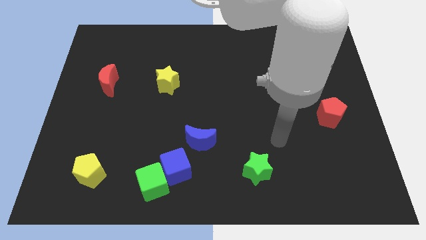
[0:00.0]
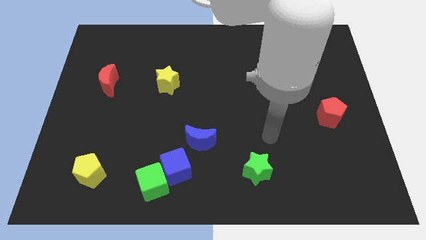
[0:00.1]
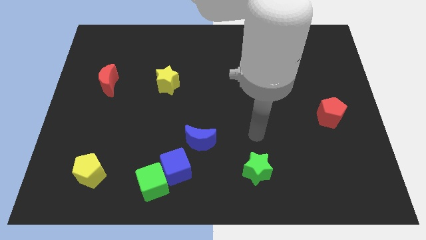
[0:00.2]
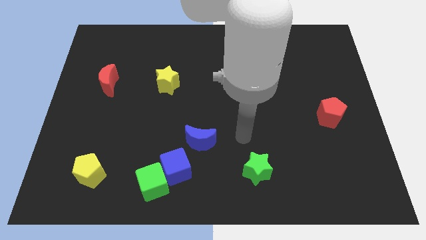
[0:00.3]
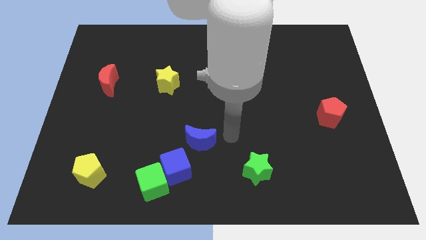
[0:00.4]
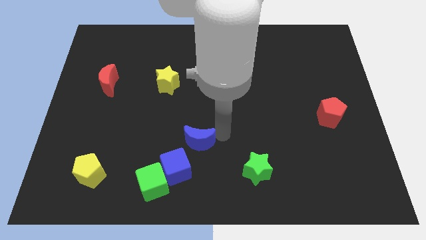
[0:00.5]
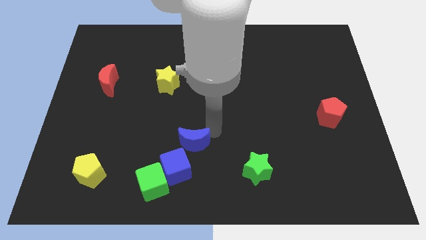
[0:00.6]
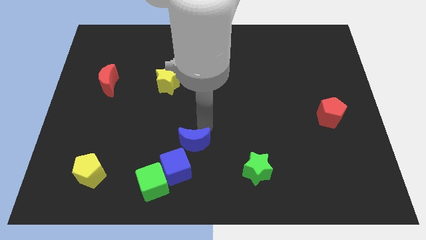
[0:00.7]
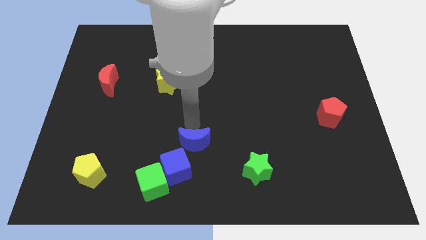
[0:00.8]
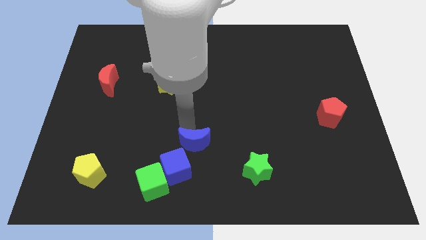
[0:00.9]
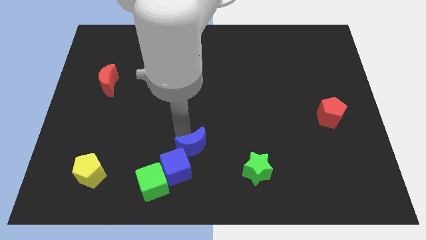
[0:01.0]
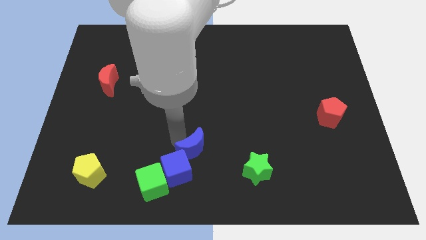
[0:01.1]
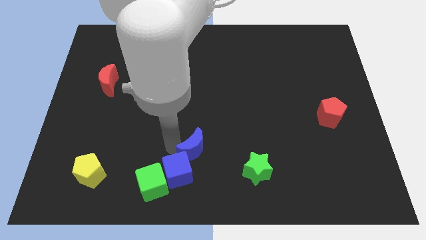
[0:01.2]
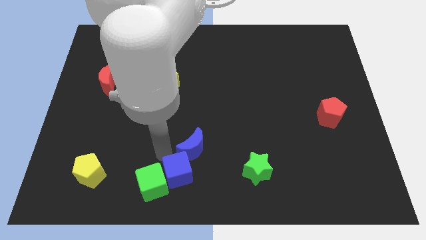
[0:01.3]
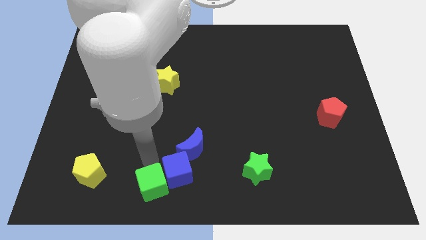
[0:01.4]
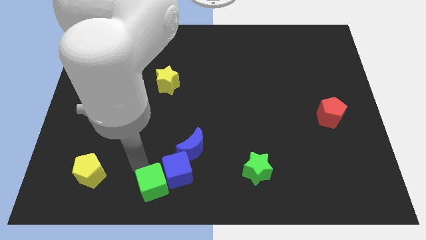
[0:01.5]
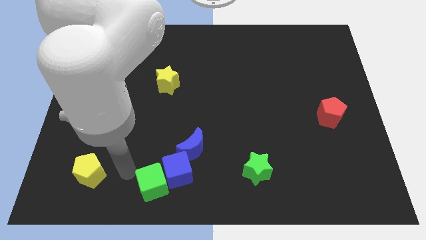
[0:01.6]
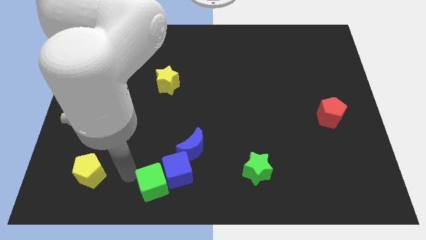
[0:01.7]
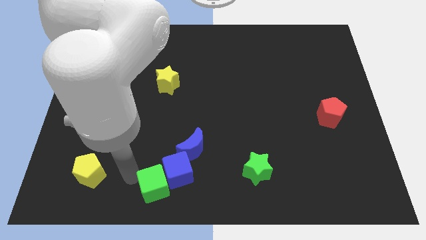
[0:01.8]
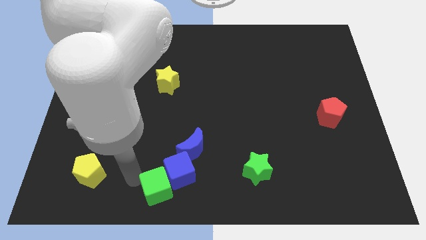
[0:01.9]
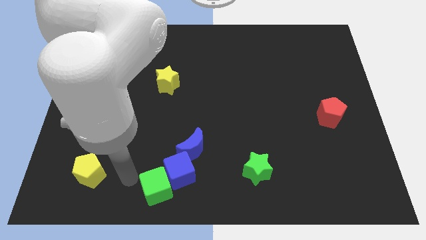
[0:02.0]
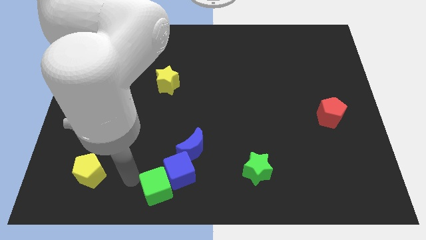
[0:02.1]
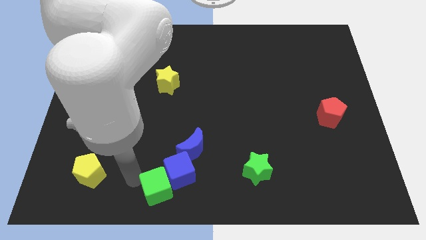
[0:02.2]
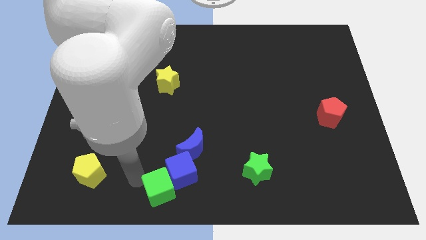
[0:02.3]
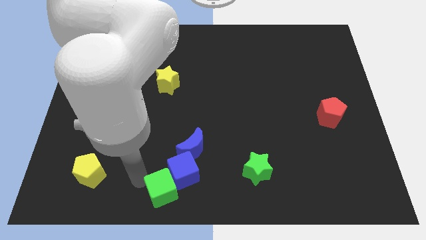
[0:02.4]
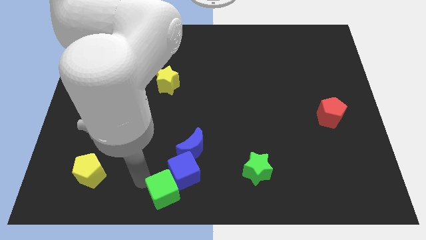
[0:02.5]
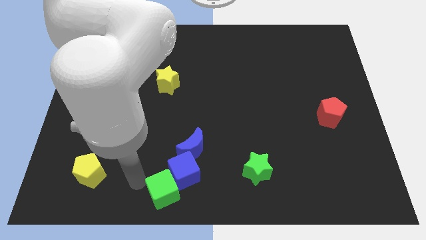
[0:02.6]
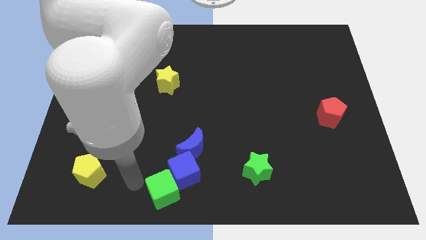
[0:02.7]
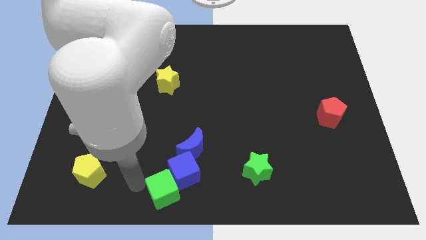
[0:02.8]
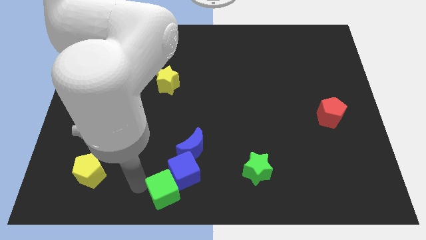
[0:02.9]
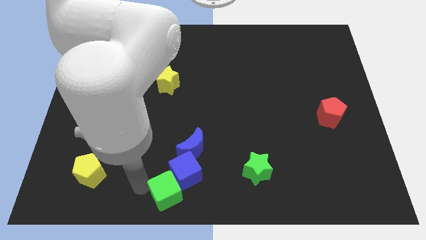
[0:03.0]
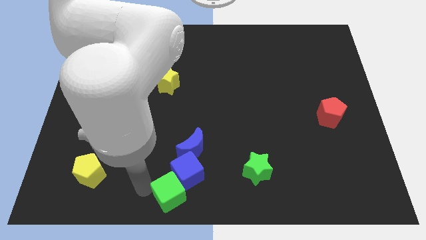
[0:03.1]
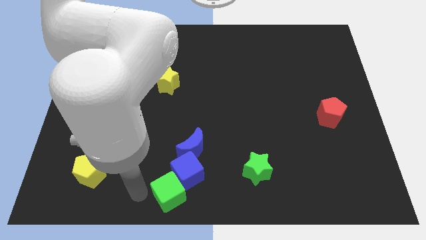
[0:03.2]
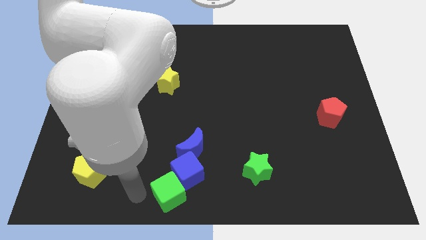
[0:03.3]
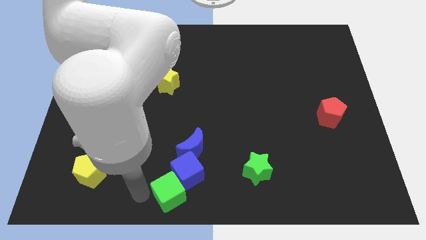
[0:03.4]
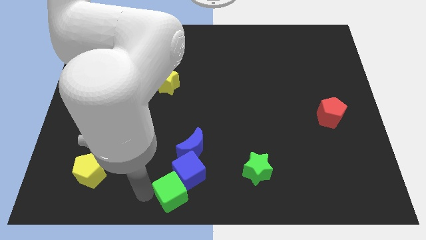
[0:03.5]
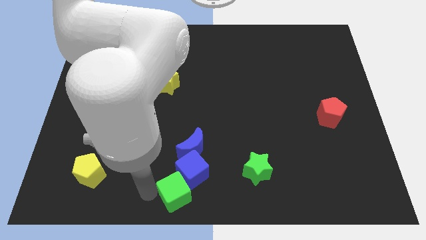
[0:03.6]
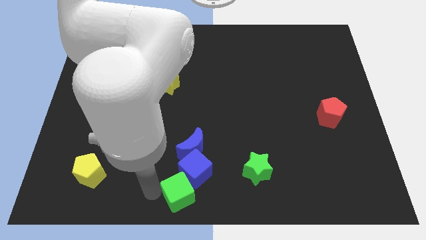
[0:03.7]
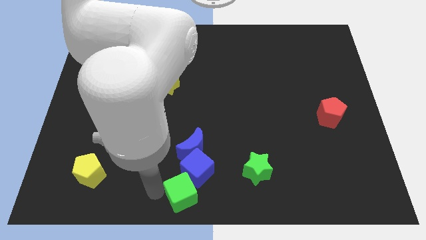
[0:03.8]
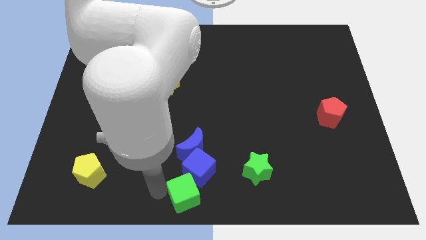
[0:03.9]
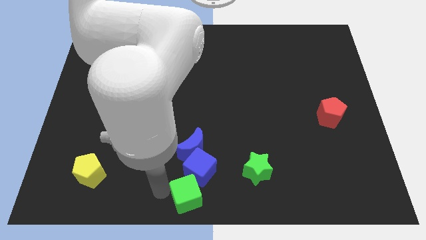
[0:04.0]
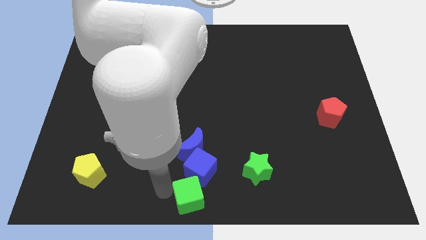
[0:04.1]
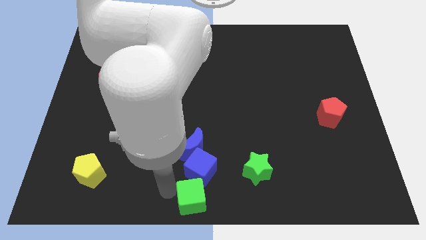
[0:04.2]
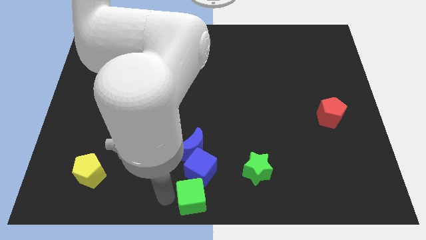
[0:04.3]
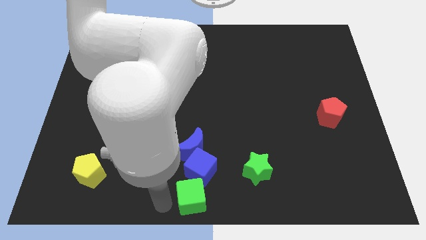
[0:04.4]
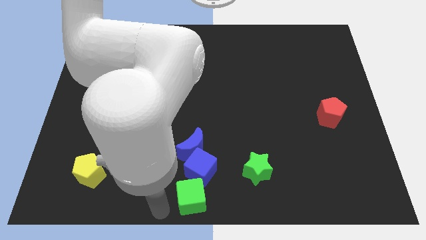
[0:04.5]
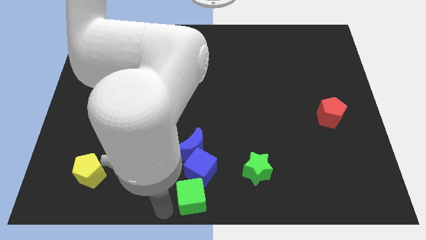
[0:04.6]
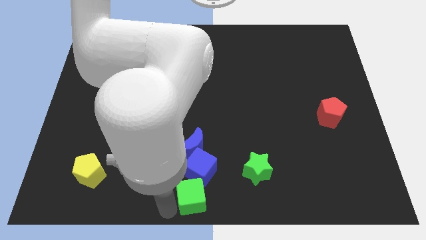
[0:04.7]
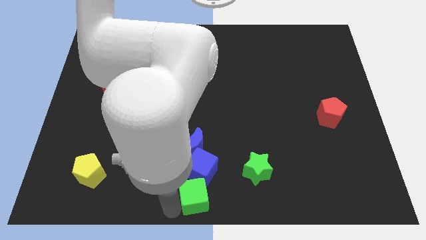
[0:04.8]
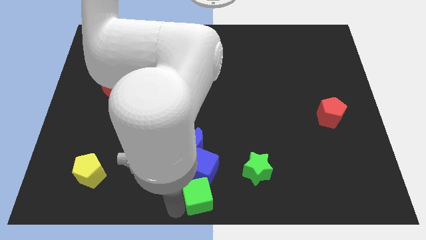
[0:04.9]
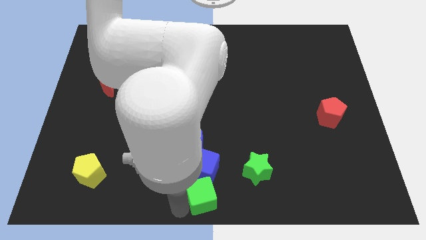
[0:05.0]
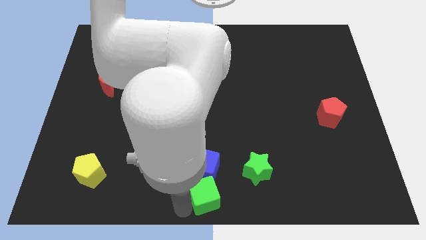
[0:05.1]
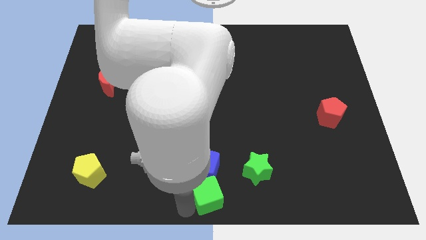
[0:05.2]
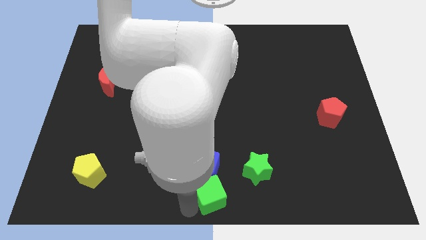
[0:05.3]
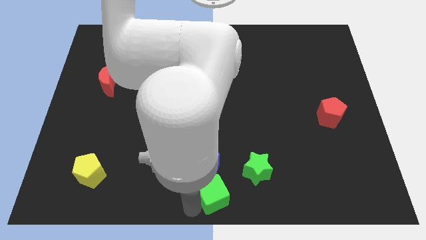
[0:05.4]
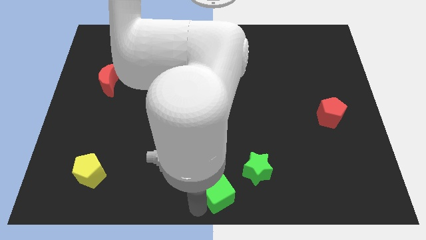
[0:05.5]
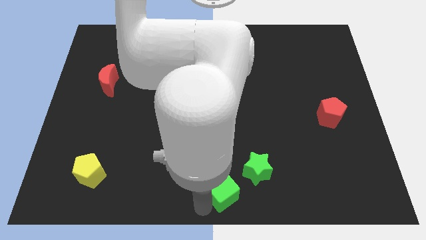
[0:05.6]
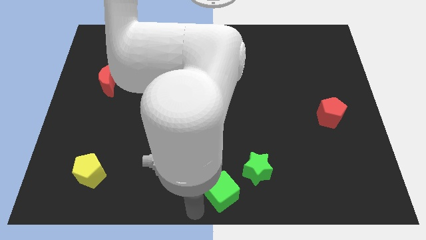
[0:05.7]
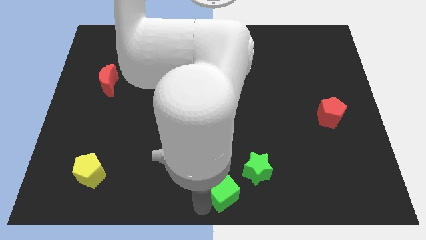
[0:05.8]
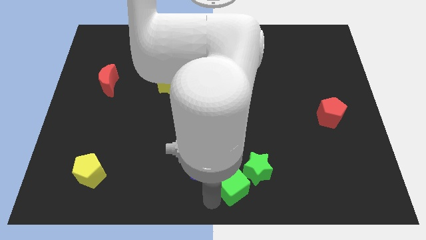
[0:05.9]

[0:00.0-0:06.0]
slide the green cube close to the green star

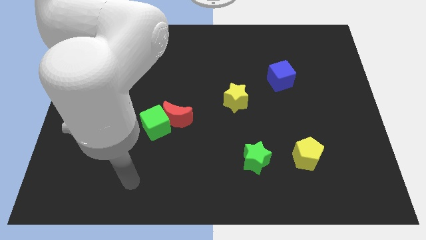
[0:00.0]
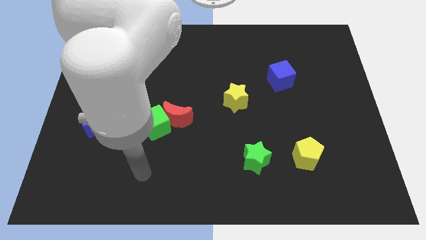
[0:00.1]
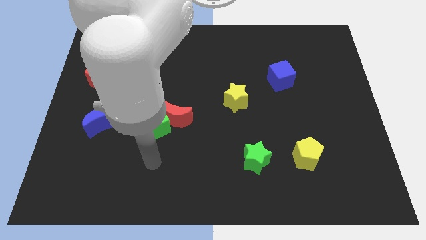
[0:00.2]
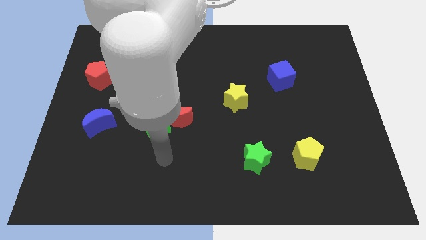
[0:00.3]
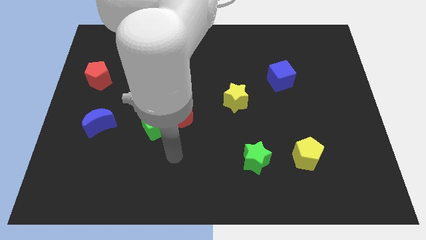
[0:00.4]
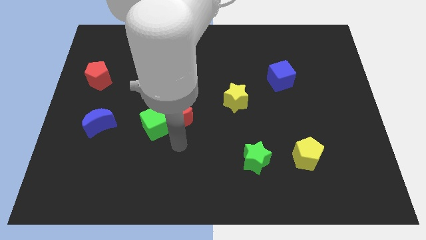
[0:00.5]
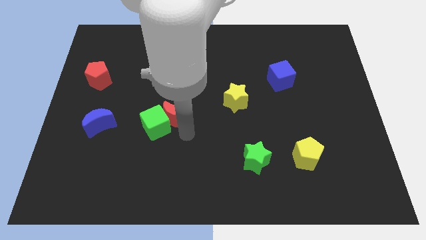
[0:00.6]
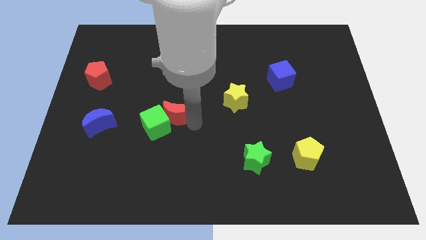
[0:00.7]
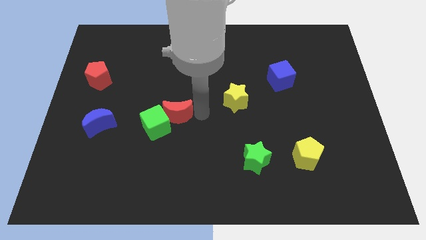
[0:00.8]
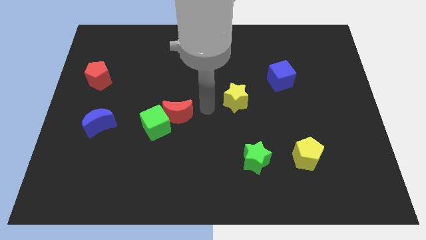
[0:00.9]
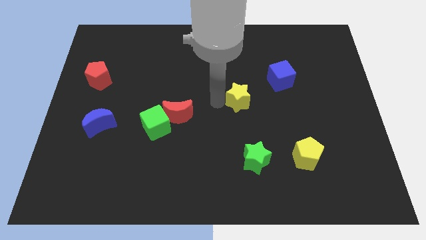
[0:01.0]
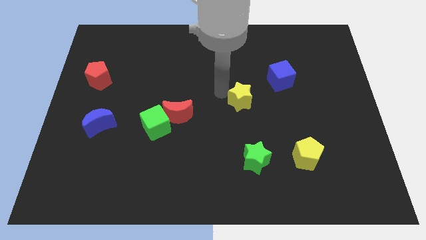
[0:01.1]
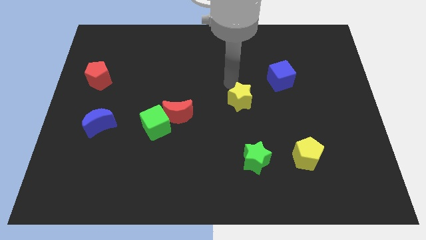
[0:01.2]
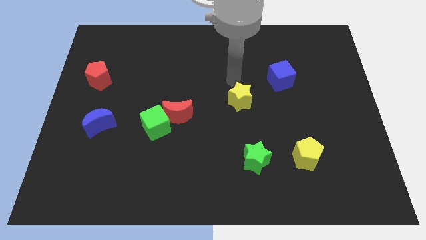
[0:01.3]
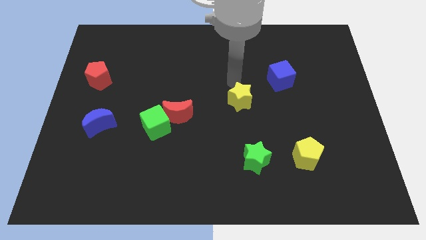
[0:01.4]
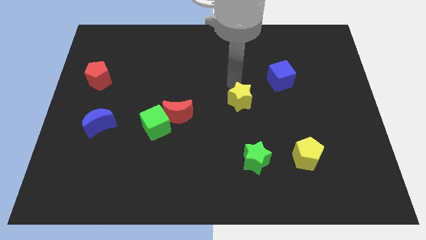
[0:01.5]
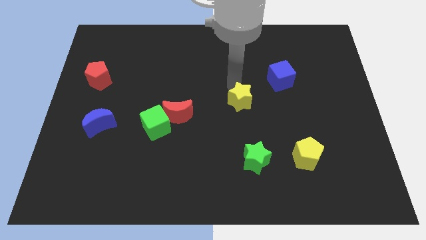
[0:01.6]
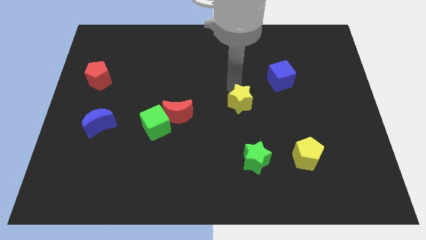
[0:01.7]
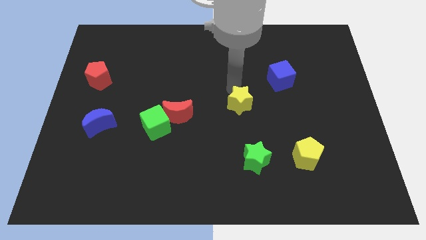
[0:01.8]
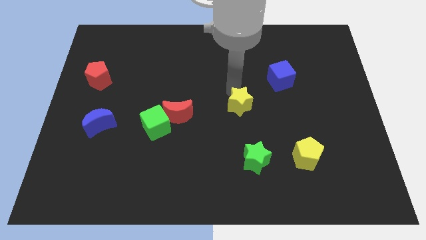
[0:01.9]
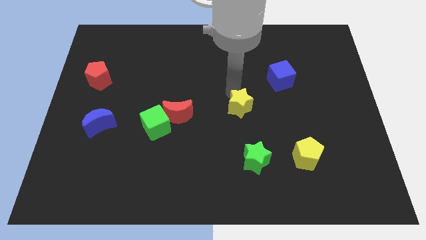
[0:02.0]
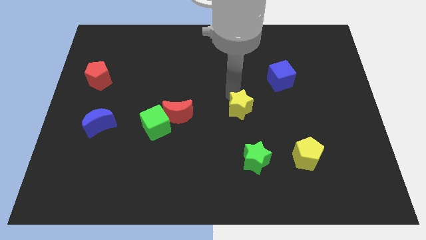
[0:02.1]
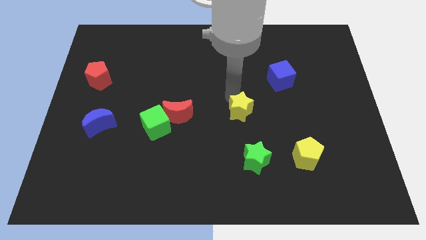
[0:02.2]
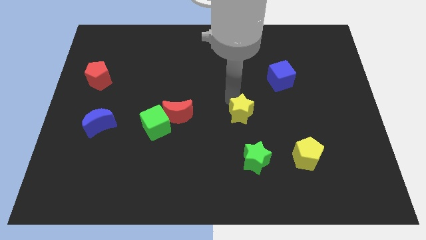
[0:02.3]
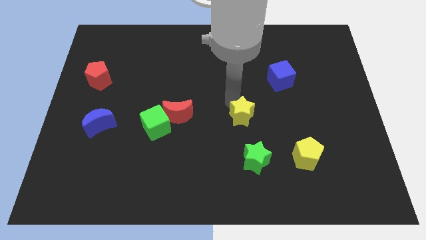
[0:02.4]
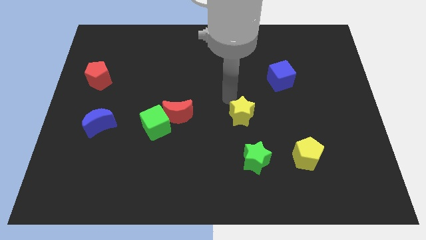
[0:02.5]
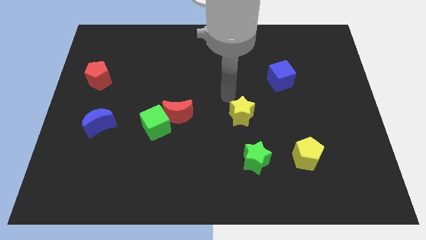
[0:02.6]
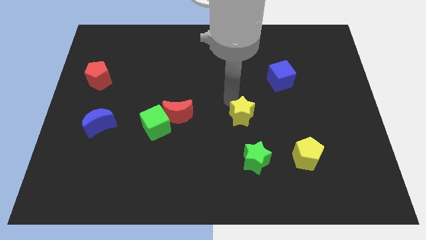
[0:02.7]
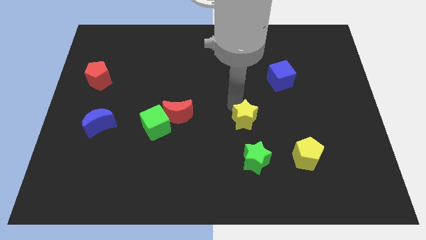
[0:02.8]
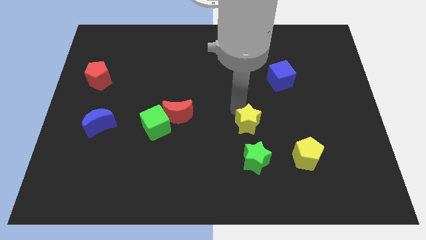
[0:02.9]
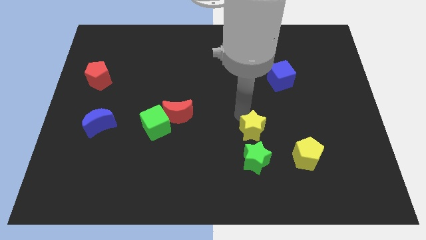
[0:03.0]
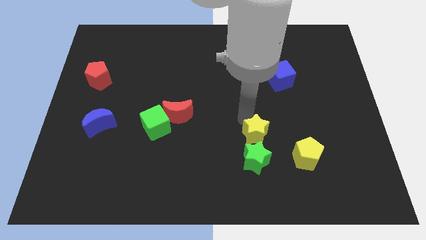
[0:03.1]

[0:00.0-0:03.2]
slide the yellow star next to the green star
